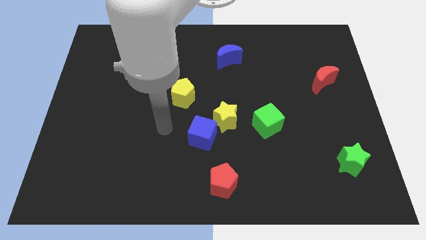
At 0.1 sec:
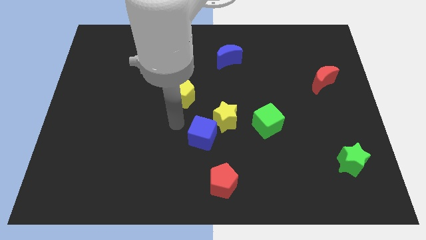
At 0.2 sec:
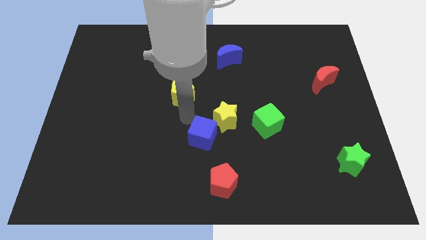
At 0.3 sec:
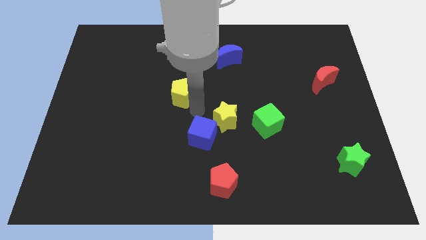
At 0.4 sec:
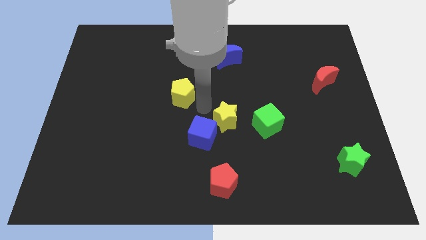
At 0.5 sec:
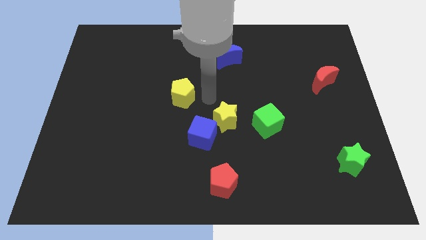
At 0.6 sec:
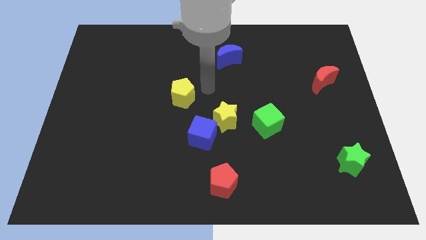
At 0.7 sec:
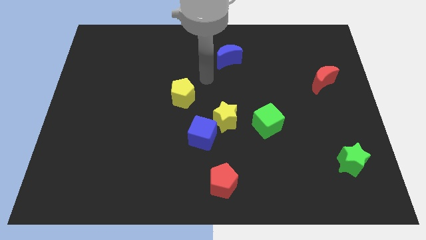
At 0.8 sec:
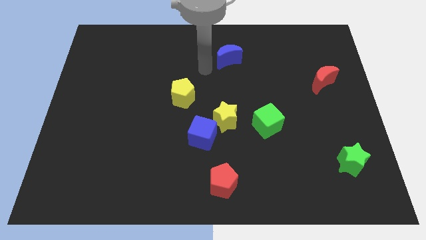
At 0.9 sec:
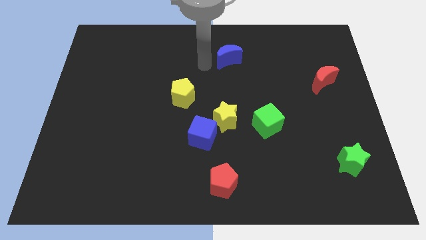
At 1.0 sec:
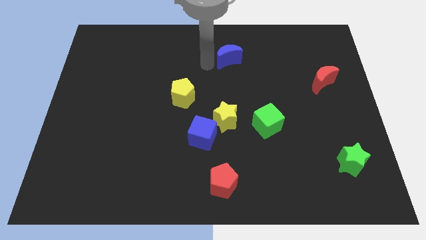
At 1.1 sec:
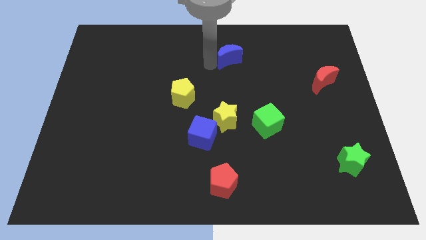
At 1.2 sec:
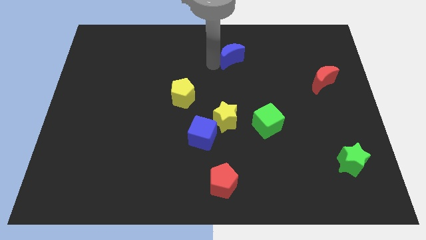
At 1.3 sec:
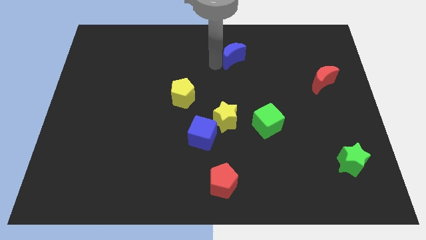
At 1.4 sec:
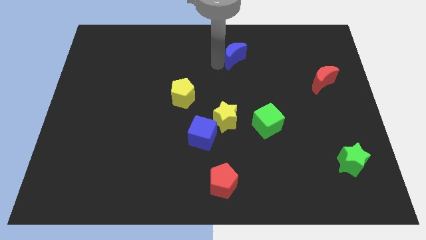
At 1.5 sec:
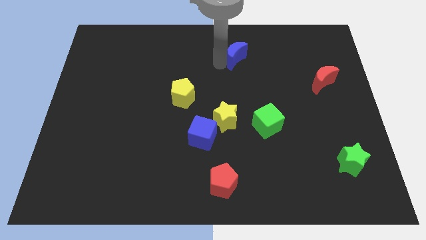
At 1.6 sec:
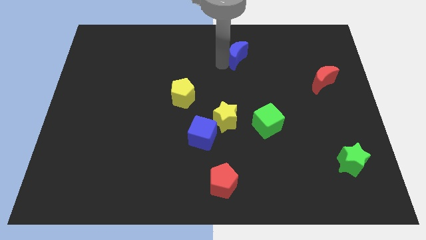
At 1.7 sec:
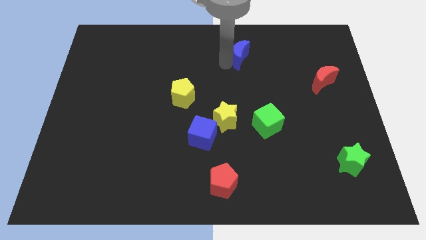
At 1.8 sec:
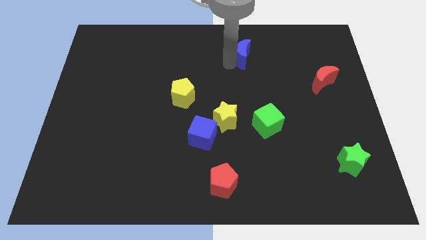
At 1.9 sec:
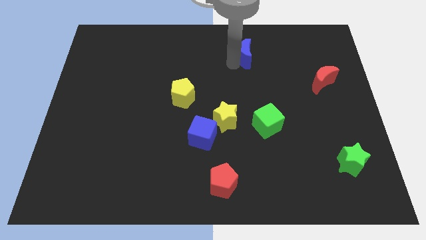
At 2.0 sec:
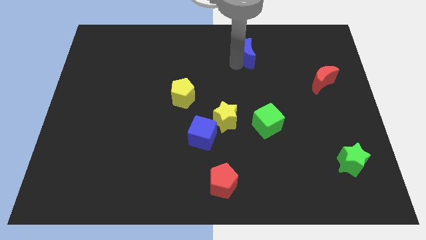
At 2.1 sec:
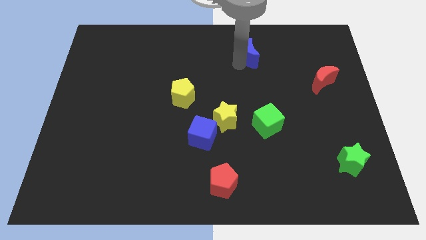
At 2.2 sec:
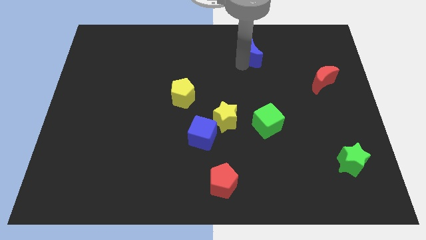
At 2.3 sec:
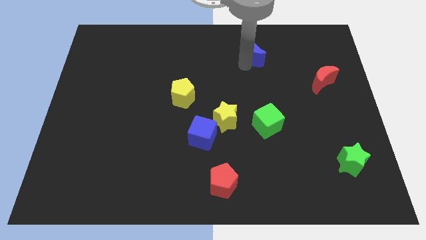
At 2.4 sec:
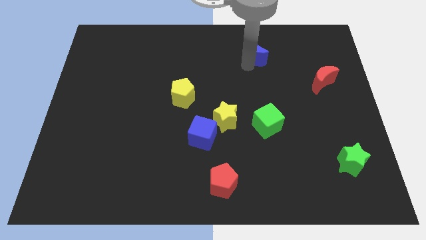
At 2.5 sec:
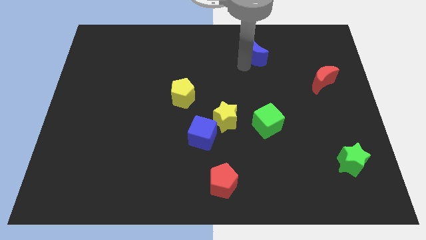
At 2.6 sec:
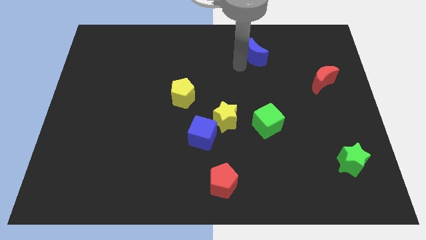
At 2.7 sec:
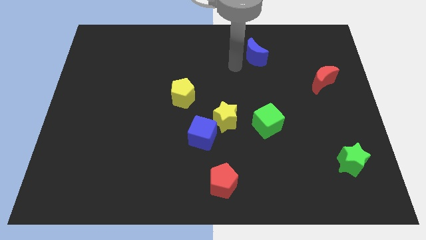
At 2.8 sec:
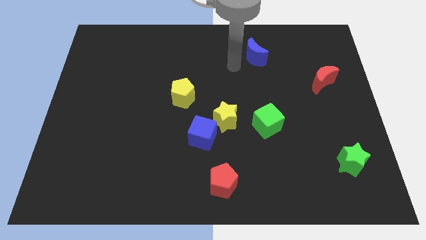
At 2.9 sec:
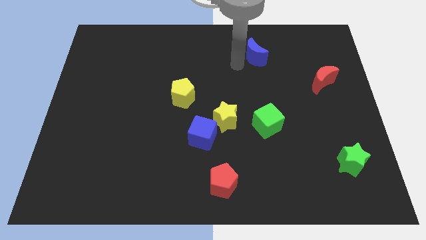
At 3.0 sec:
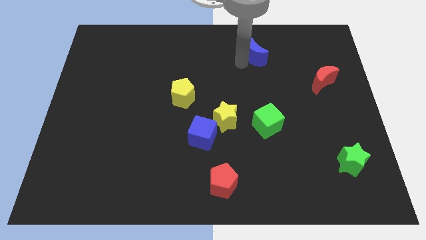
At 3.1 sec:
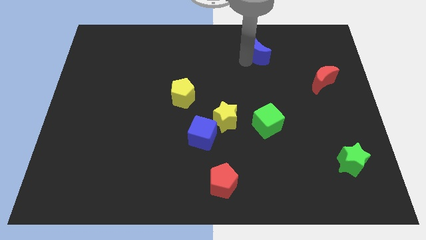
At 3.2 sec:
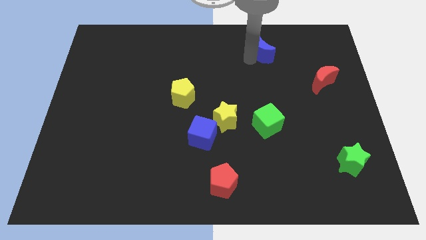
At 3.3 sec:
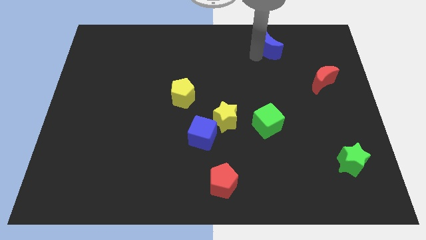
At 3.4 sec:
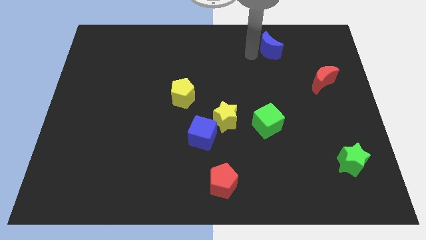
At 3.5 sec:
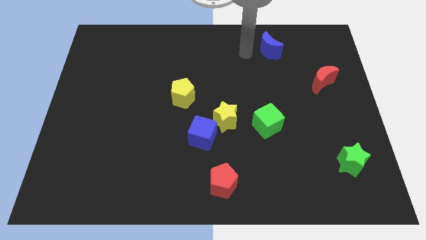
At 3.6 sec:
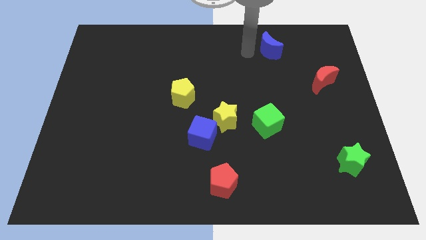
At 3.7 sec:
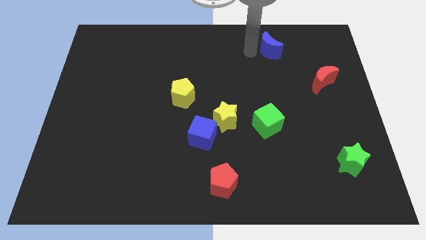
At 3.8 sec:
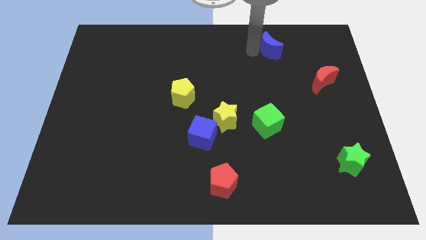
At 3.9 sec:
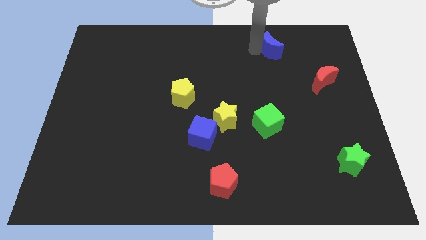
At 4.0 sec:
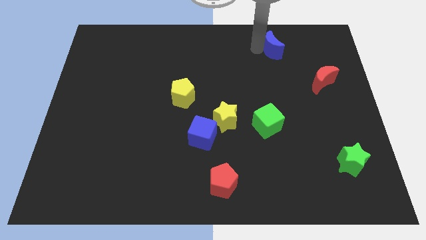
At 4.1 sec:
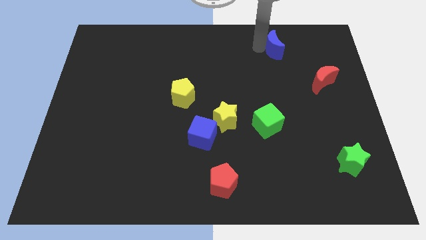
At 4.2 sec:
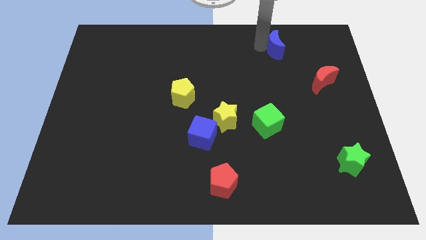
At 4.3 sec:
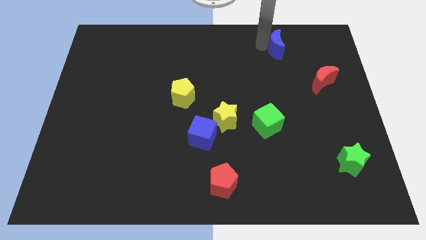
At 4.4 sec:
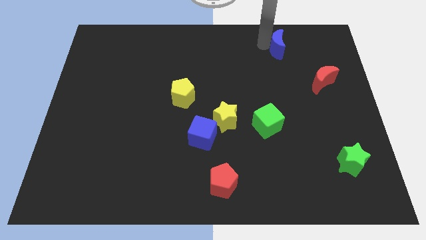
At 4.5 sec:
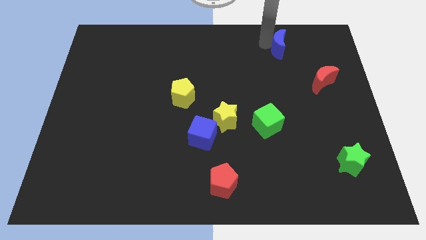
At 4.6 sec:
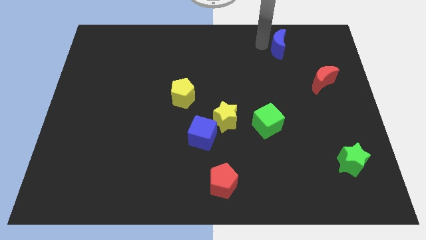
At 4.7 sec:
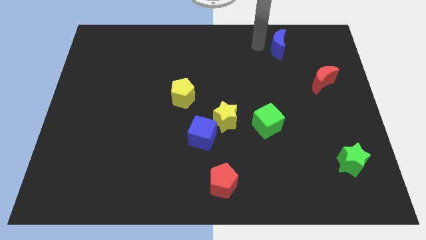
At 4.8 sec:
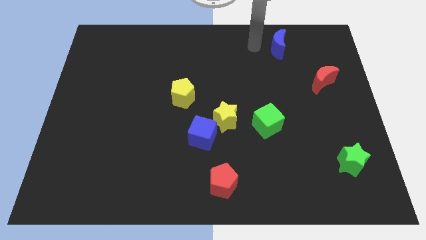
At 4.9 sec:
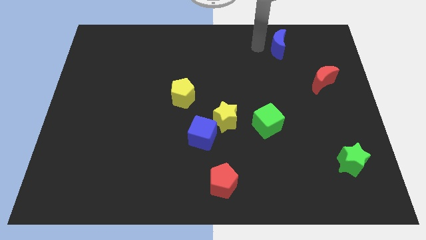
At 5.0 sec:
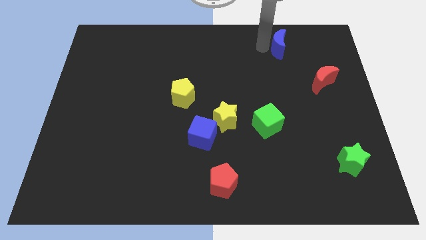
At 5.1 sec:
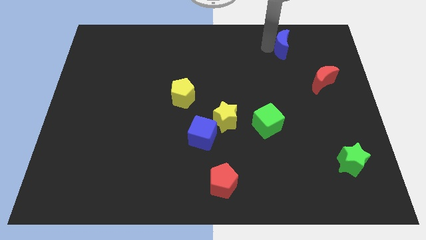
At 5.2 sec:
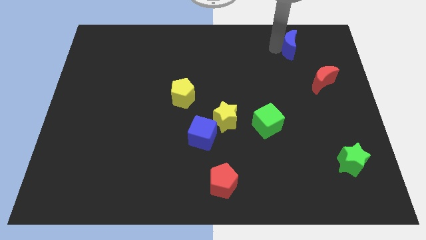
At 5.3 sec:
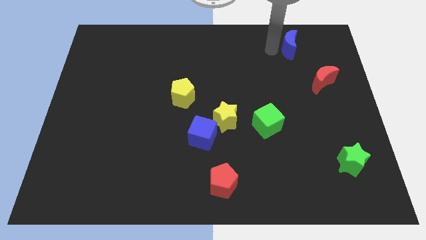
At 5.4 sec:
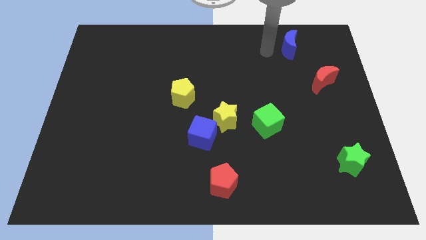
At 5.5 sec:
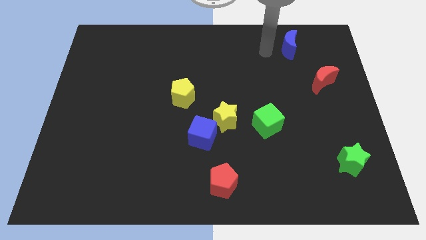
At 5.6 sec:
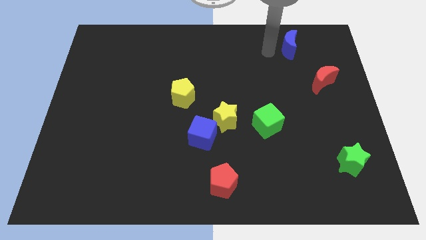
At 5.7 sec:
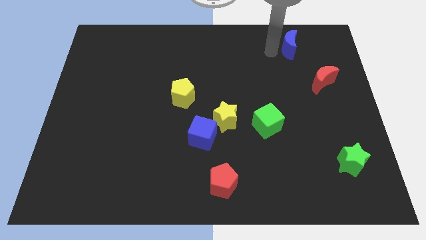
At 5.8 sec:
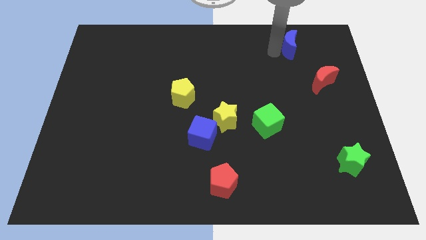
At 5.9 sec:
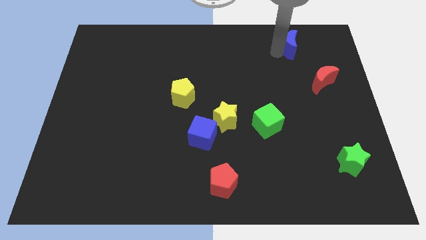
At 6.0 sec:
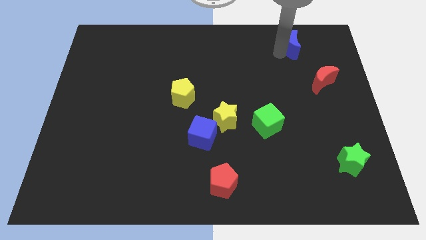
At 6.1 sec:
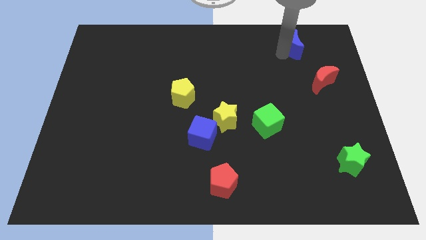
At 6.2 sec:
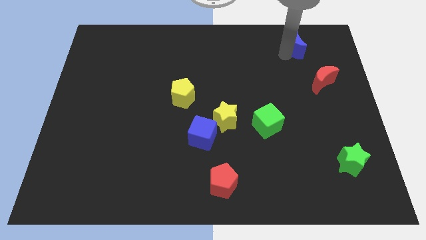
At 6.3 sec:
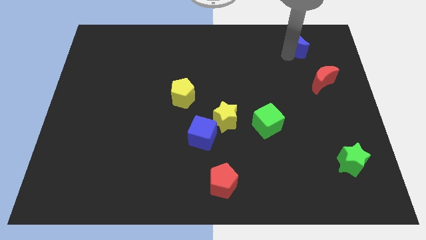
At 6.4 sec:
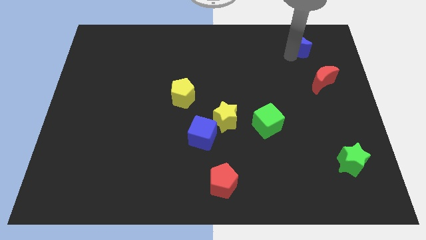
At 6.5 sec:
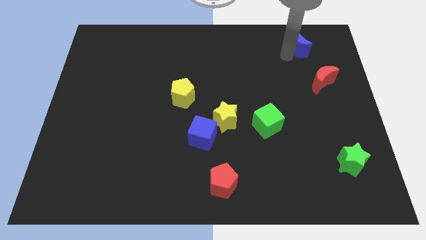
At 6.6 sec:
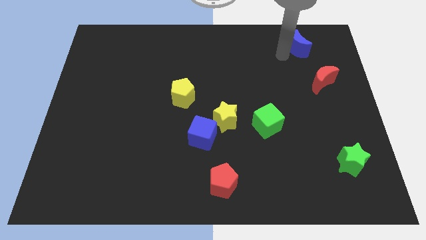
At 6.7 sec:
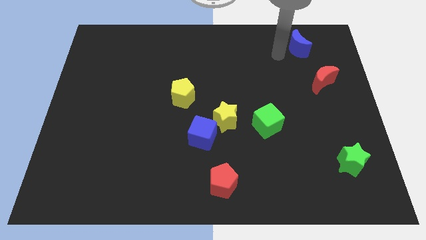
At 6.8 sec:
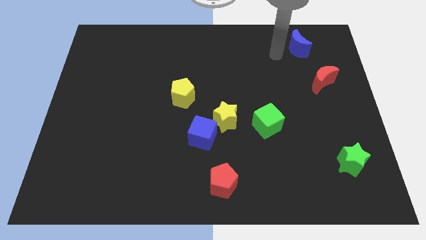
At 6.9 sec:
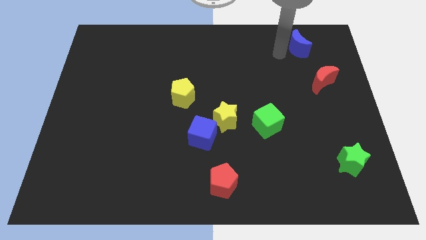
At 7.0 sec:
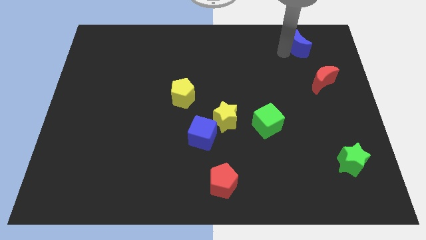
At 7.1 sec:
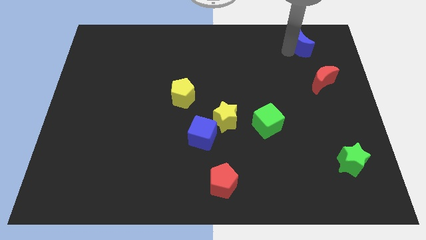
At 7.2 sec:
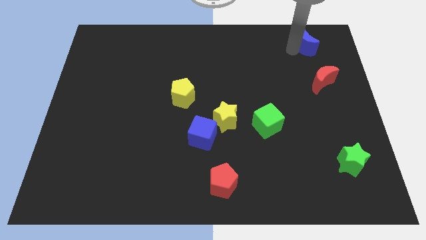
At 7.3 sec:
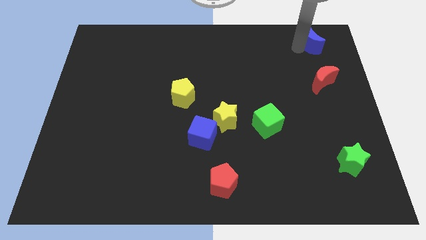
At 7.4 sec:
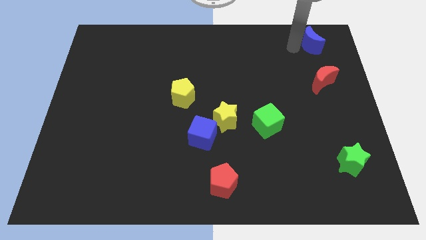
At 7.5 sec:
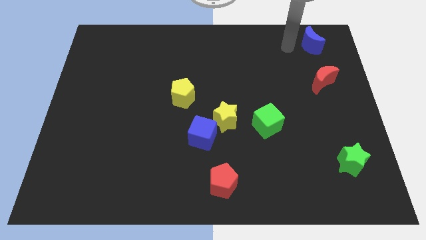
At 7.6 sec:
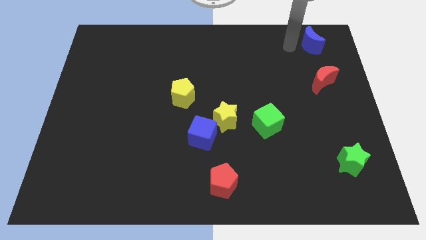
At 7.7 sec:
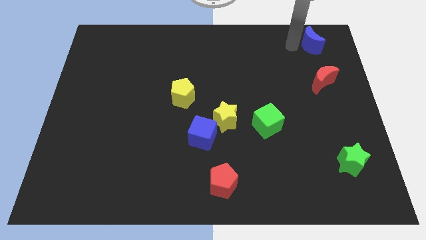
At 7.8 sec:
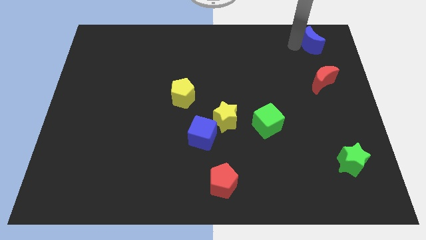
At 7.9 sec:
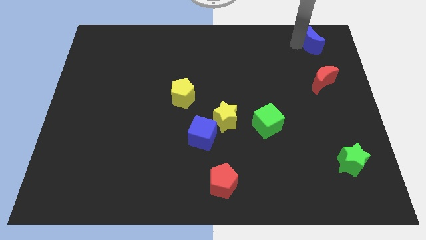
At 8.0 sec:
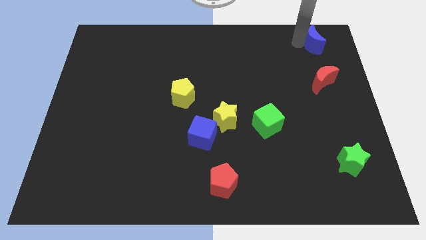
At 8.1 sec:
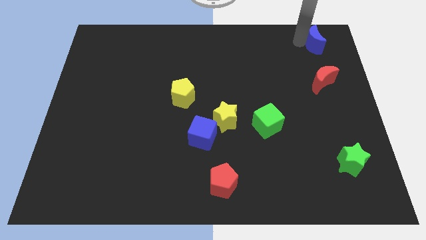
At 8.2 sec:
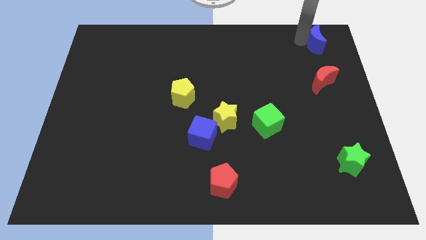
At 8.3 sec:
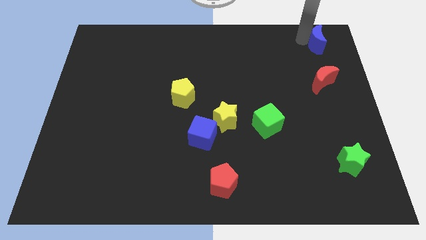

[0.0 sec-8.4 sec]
move the blue moon to the upper right corner
